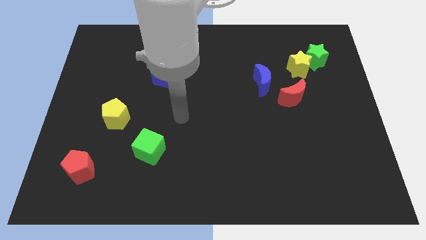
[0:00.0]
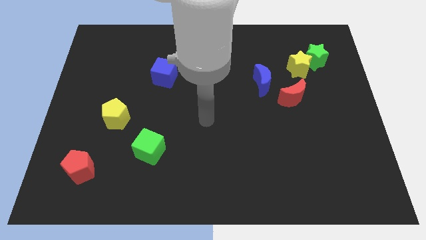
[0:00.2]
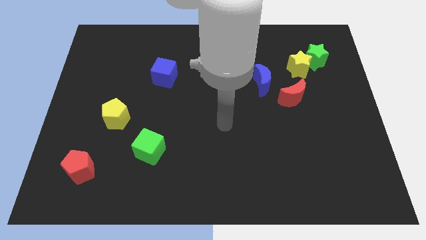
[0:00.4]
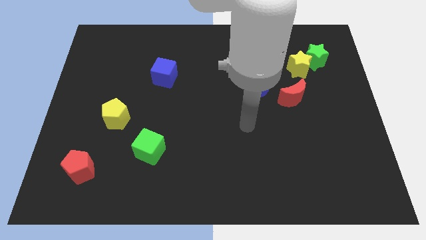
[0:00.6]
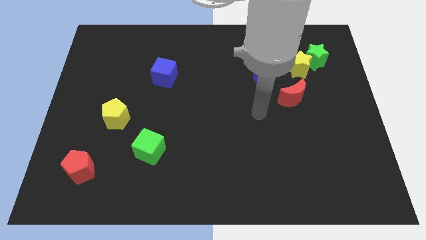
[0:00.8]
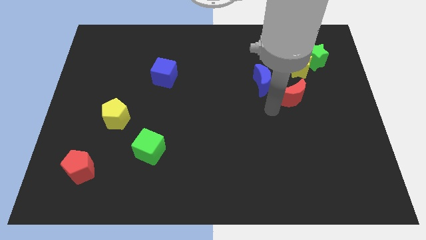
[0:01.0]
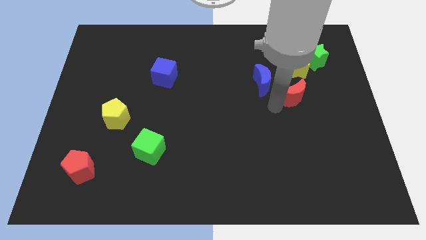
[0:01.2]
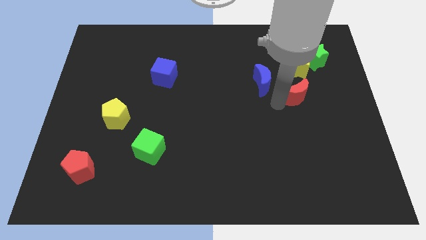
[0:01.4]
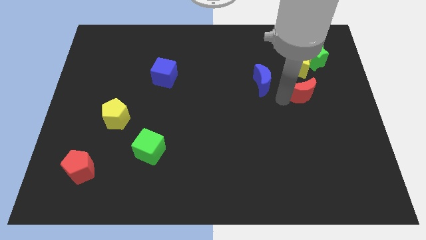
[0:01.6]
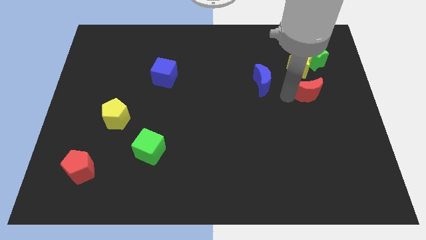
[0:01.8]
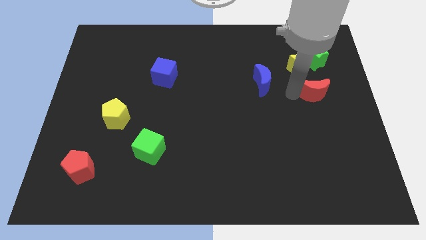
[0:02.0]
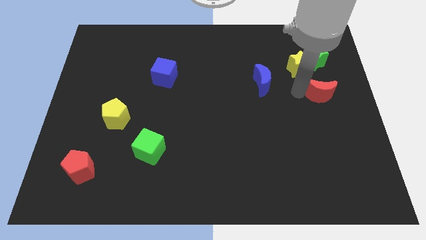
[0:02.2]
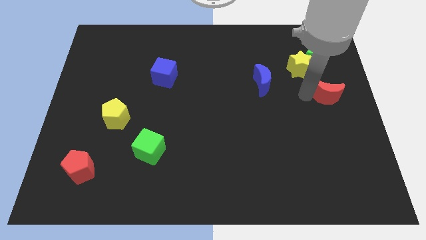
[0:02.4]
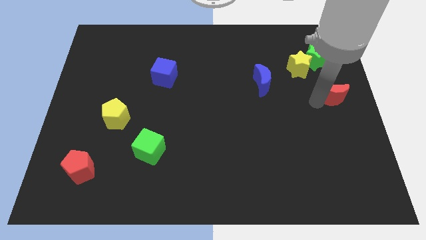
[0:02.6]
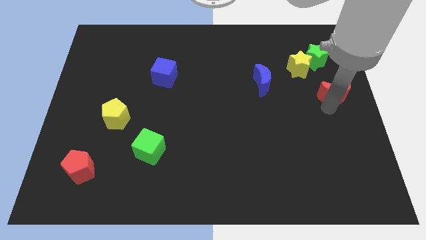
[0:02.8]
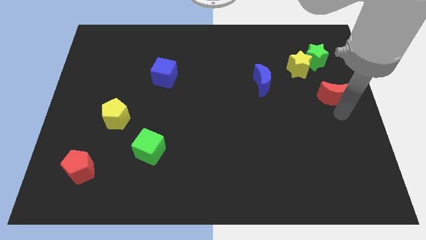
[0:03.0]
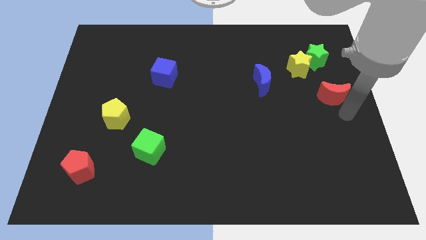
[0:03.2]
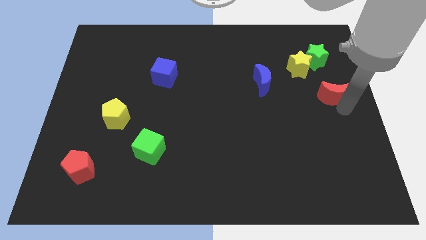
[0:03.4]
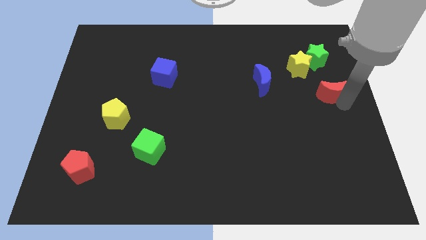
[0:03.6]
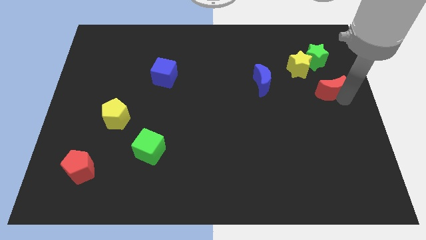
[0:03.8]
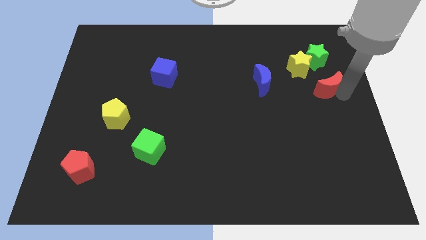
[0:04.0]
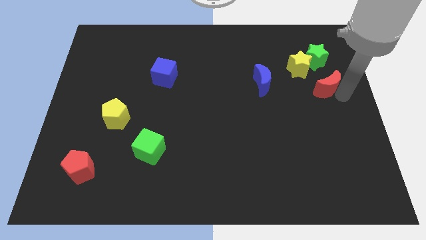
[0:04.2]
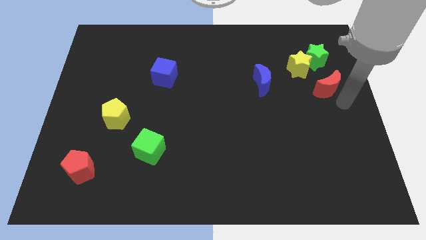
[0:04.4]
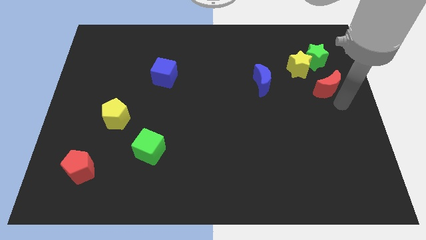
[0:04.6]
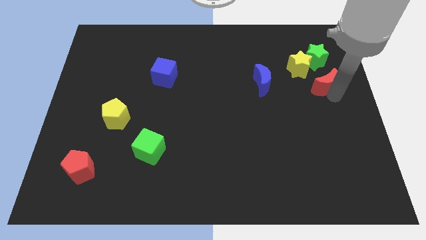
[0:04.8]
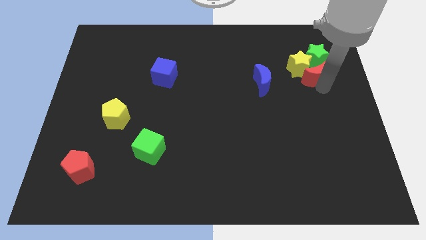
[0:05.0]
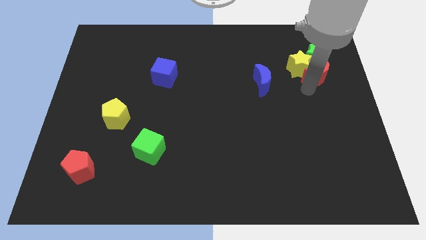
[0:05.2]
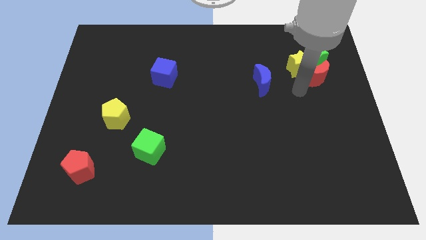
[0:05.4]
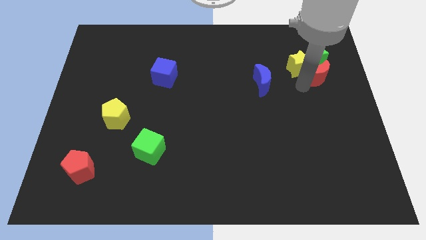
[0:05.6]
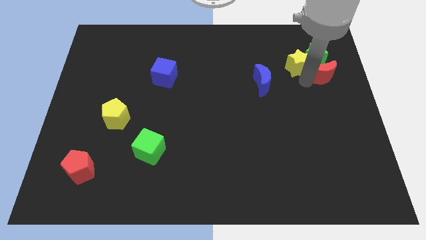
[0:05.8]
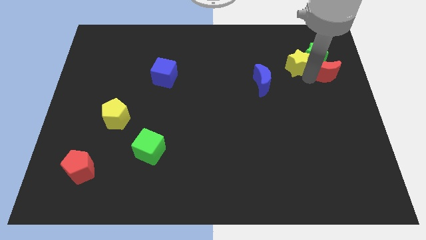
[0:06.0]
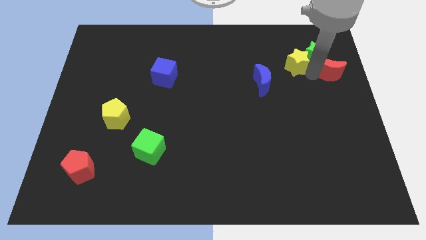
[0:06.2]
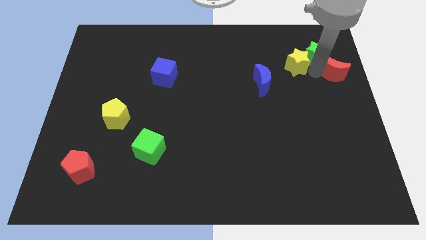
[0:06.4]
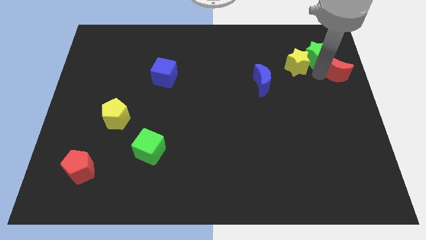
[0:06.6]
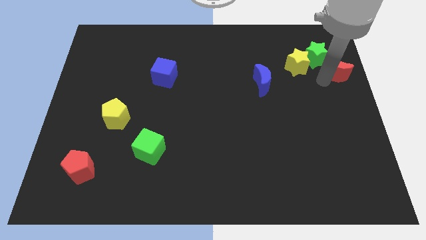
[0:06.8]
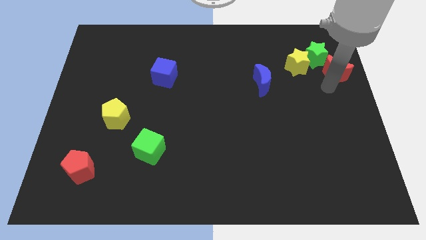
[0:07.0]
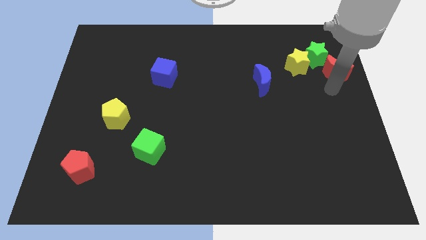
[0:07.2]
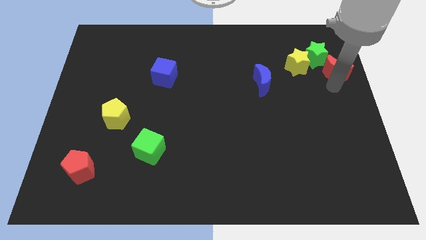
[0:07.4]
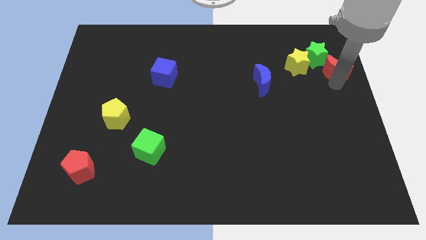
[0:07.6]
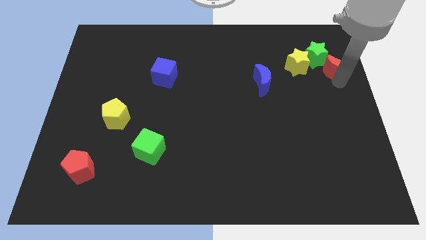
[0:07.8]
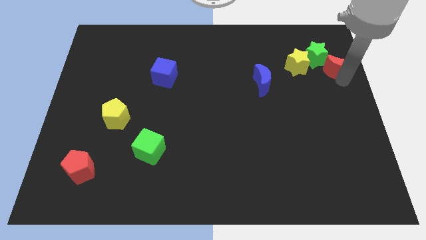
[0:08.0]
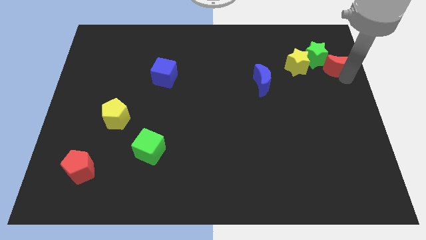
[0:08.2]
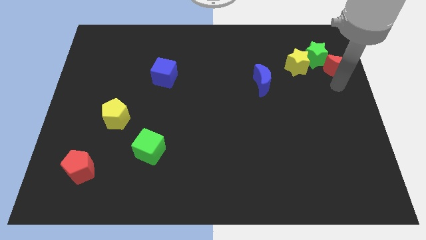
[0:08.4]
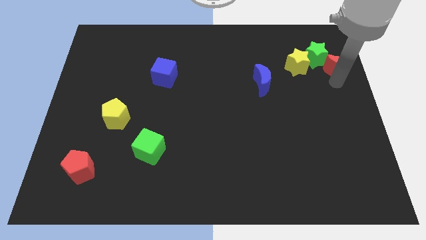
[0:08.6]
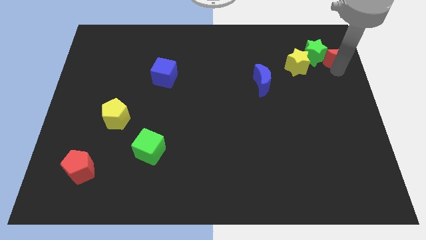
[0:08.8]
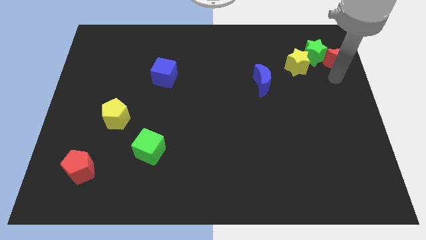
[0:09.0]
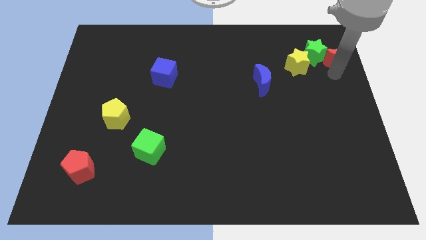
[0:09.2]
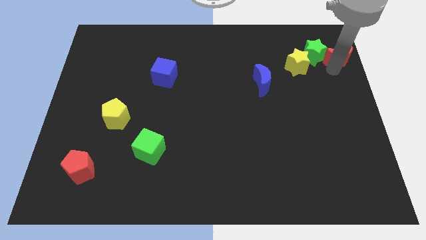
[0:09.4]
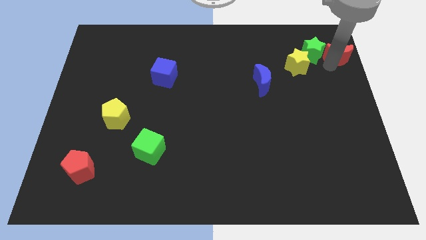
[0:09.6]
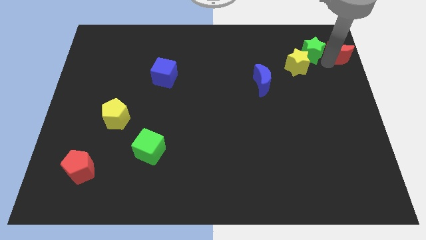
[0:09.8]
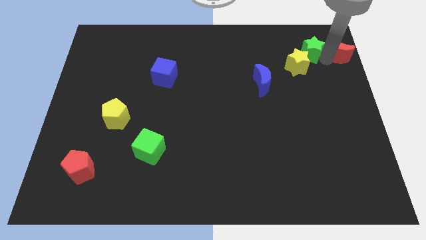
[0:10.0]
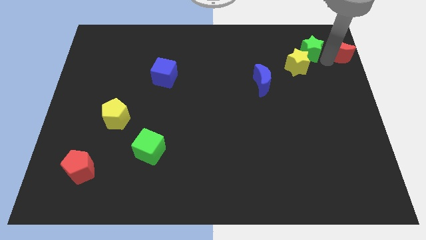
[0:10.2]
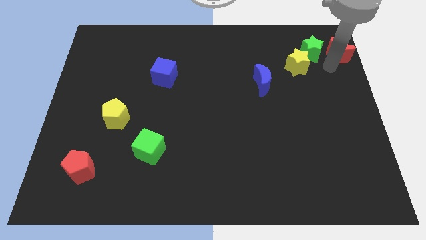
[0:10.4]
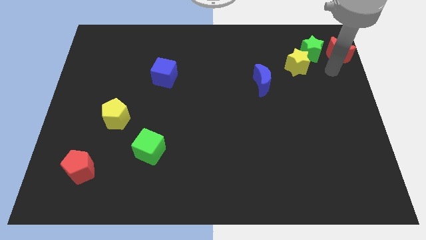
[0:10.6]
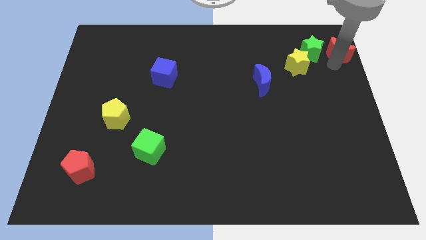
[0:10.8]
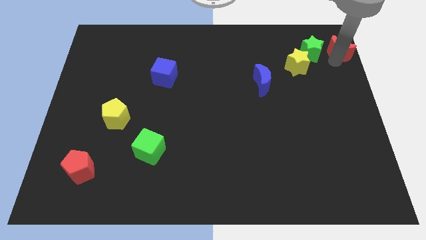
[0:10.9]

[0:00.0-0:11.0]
move the red moon to the top right of the board
